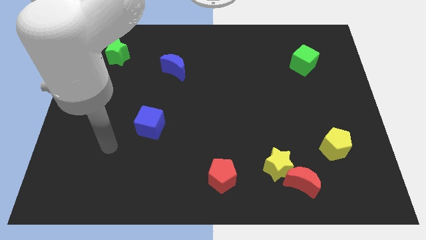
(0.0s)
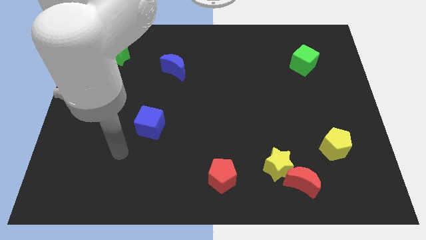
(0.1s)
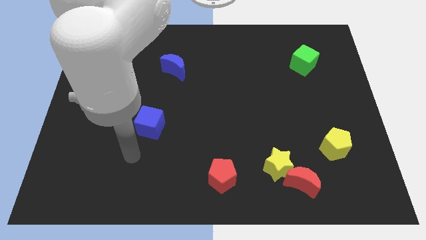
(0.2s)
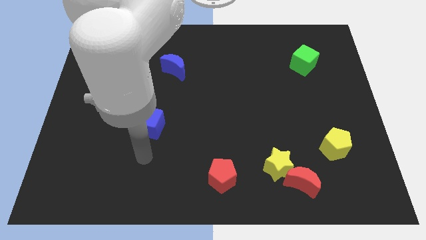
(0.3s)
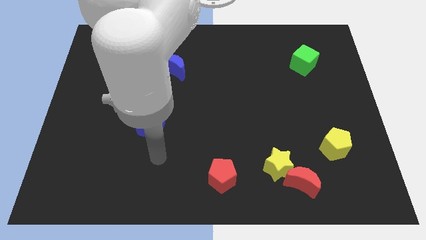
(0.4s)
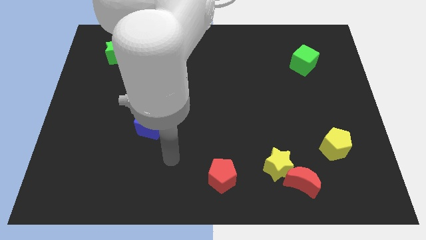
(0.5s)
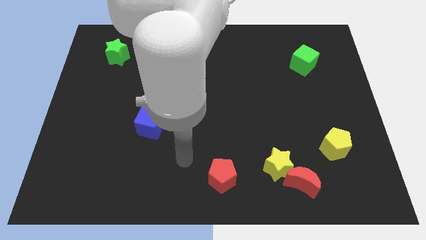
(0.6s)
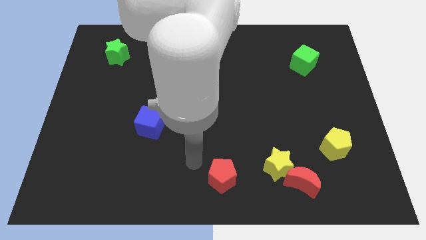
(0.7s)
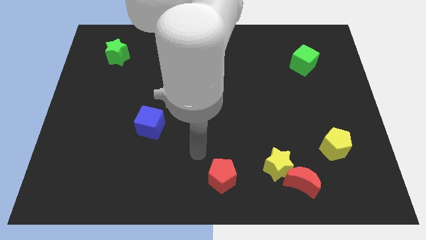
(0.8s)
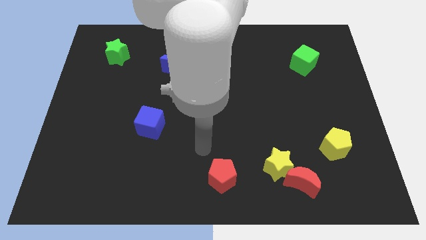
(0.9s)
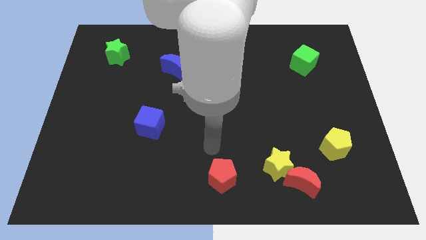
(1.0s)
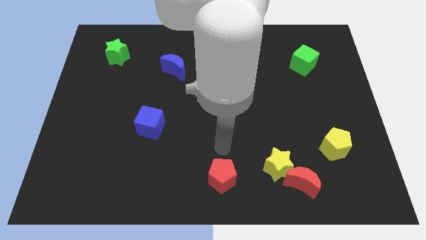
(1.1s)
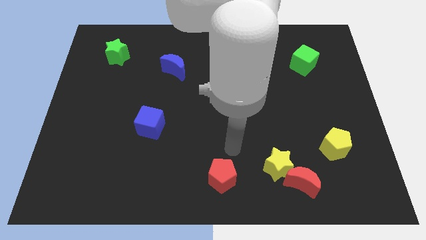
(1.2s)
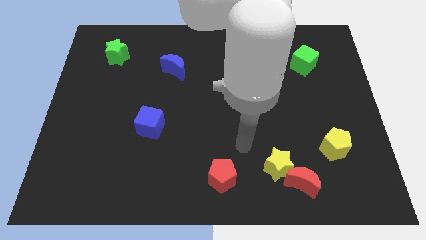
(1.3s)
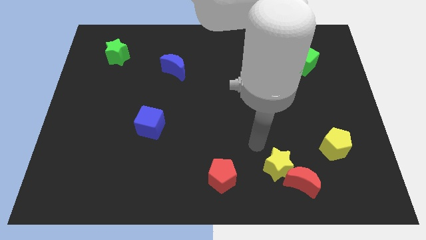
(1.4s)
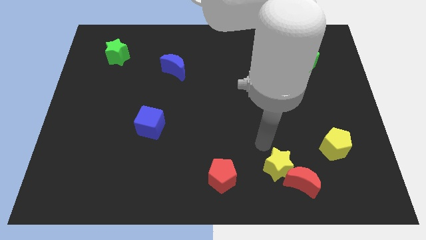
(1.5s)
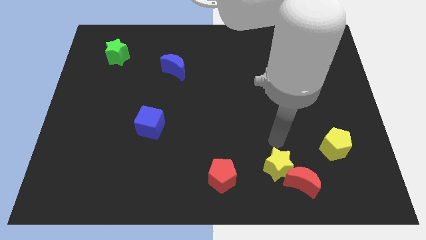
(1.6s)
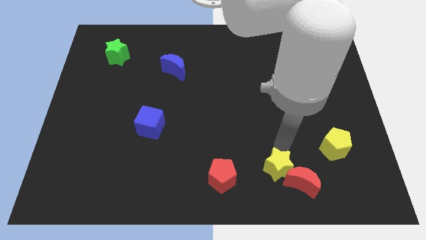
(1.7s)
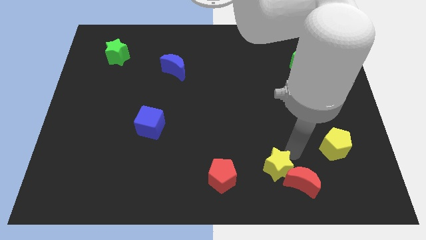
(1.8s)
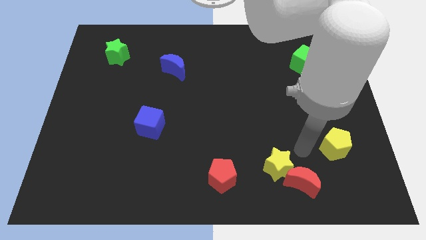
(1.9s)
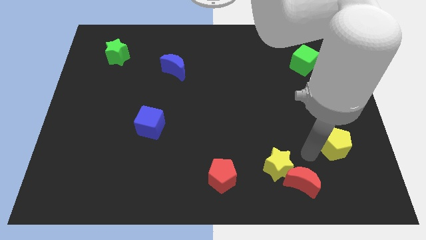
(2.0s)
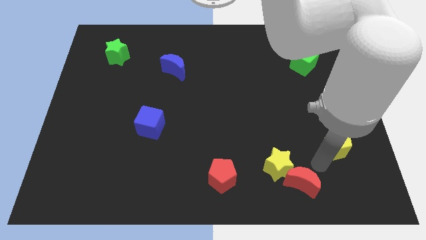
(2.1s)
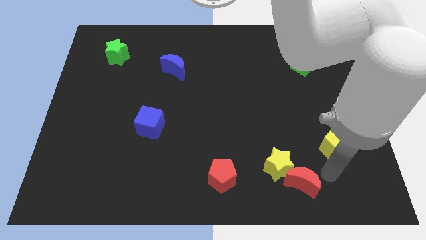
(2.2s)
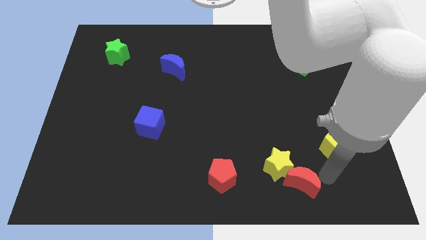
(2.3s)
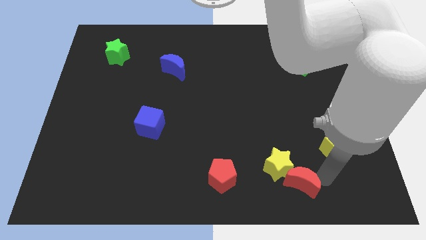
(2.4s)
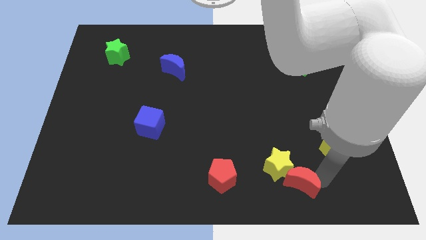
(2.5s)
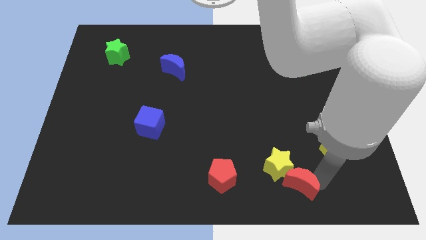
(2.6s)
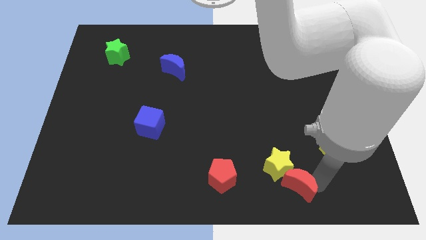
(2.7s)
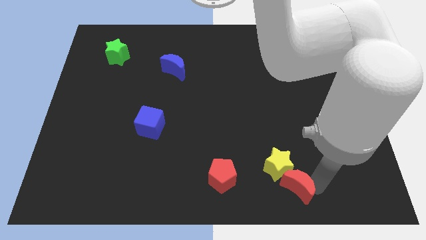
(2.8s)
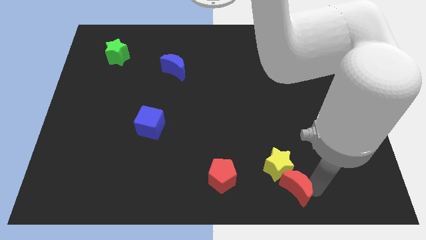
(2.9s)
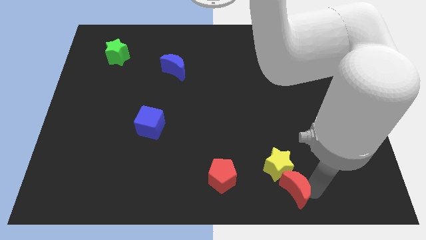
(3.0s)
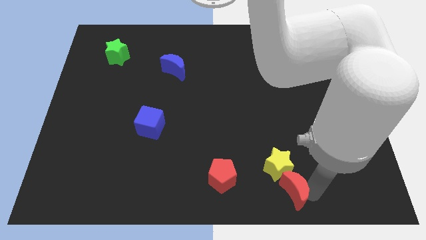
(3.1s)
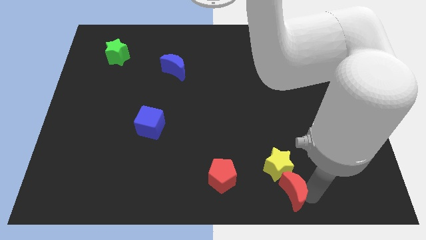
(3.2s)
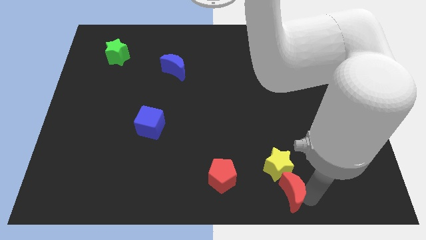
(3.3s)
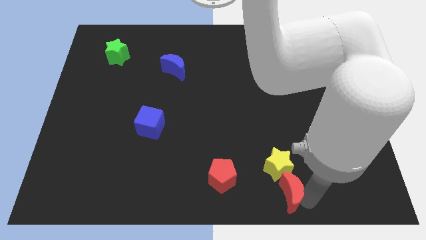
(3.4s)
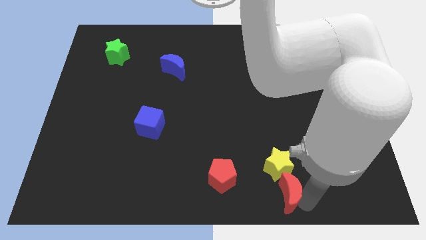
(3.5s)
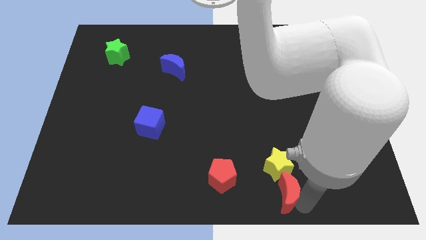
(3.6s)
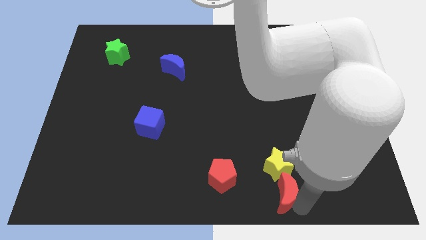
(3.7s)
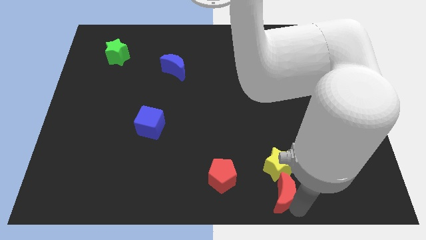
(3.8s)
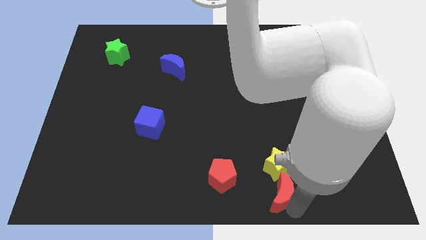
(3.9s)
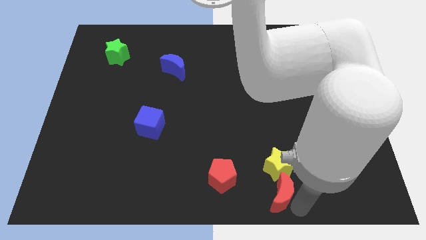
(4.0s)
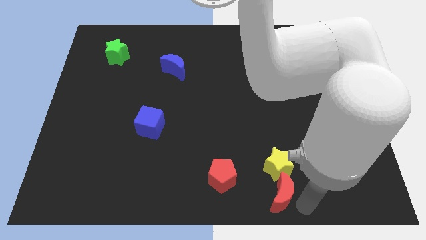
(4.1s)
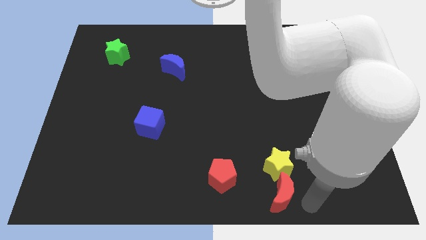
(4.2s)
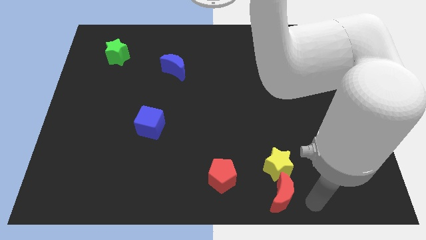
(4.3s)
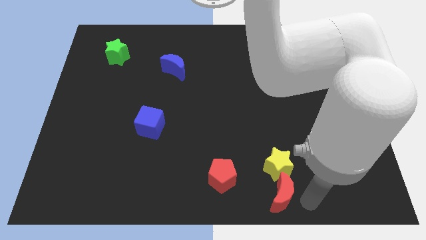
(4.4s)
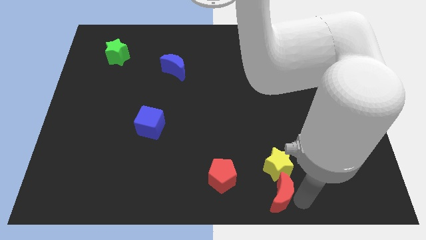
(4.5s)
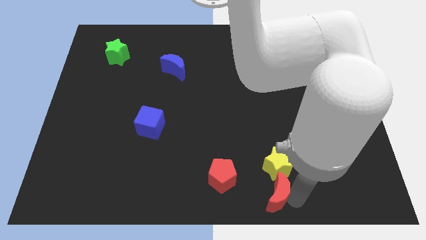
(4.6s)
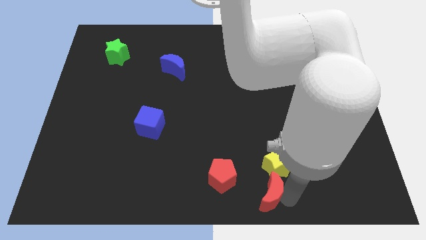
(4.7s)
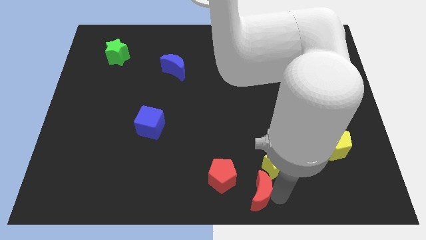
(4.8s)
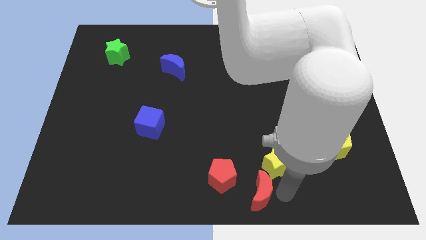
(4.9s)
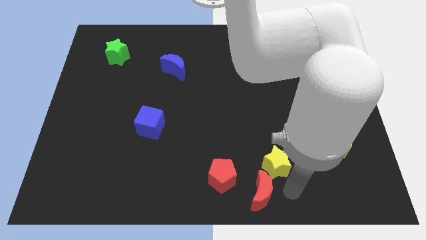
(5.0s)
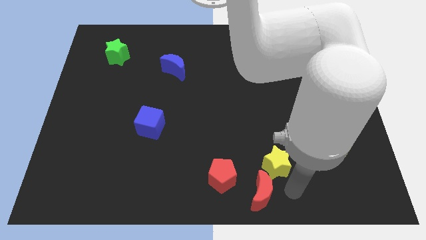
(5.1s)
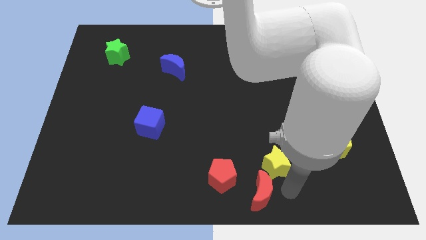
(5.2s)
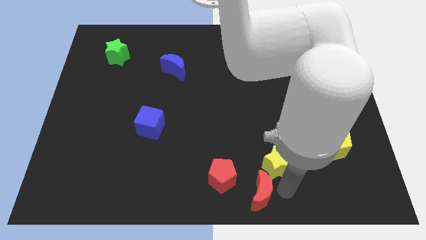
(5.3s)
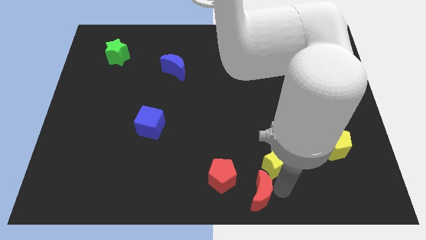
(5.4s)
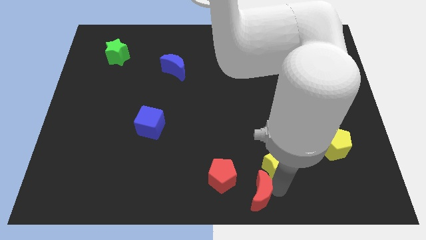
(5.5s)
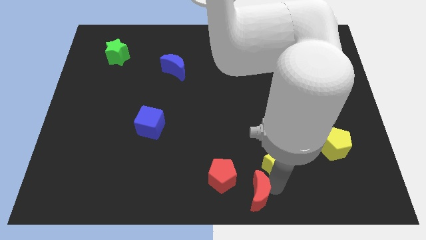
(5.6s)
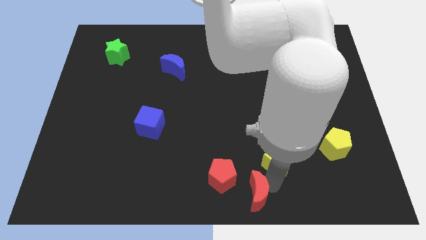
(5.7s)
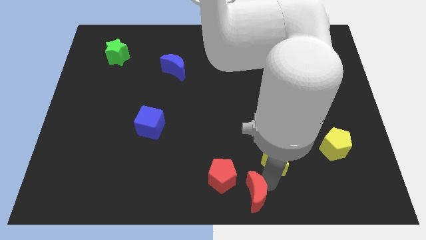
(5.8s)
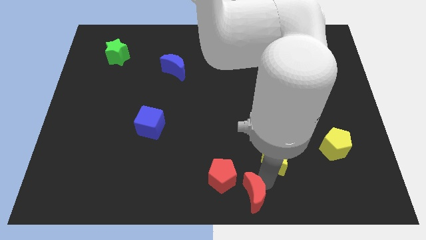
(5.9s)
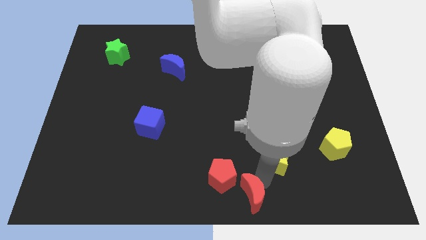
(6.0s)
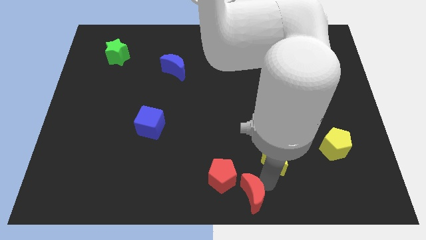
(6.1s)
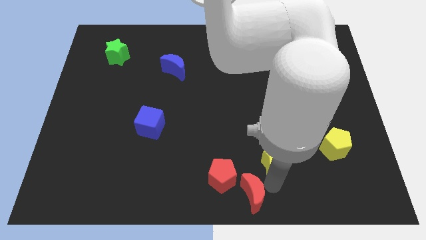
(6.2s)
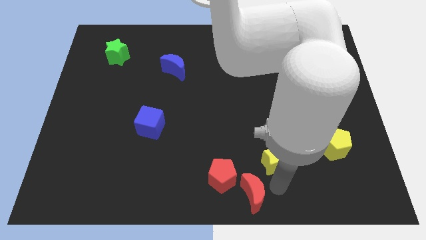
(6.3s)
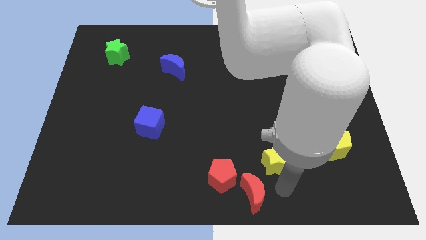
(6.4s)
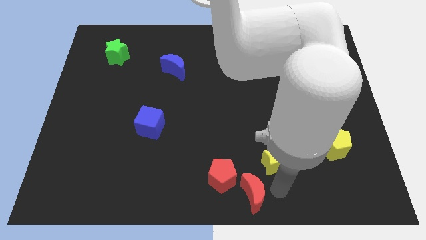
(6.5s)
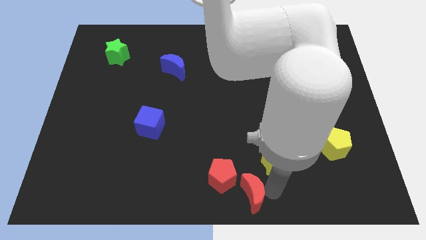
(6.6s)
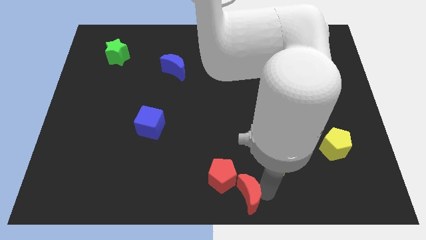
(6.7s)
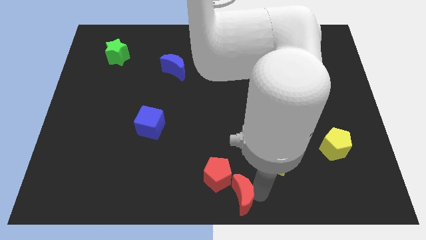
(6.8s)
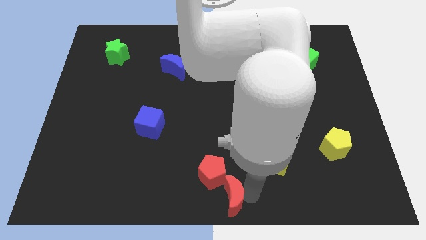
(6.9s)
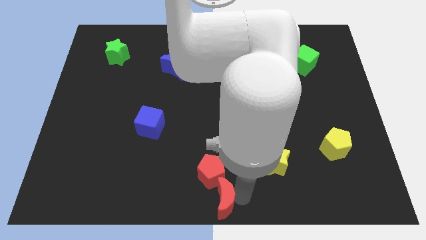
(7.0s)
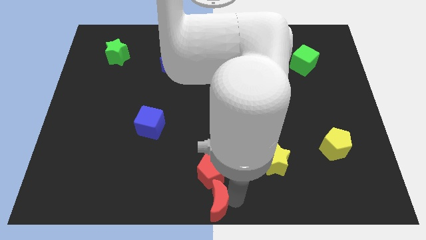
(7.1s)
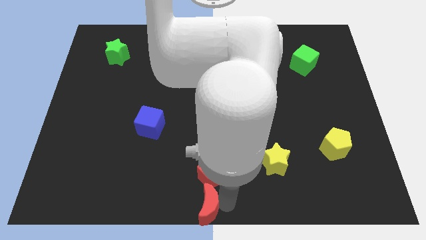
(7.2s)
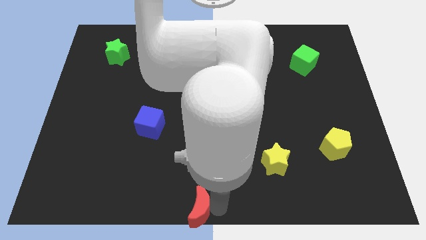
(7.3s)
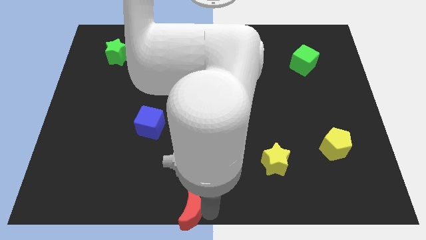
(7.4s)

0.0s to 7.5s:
move the red moon left

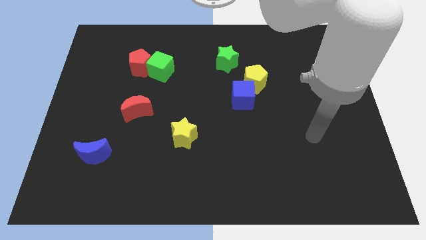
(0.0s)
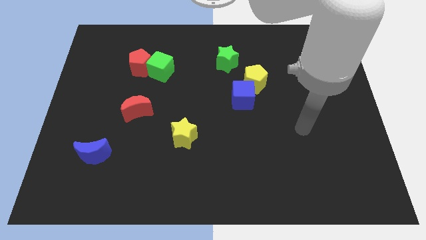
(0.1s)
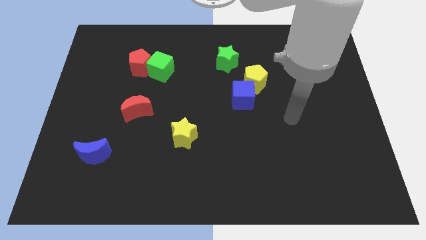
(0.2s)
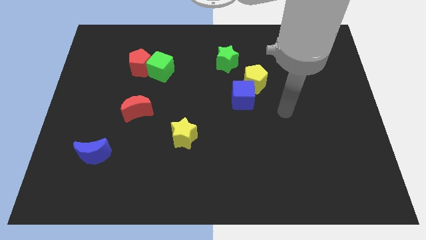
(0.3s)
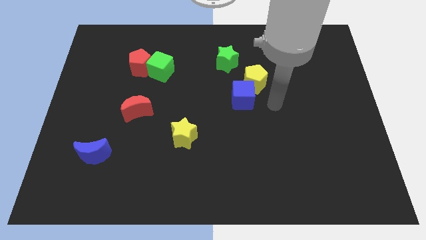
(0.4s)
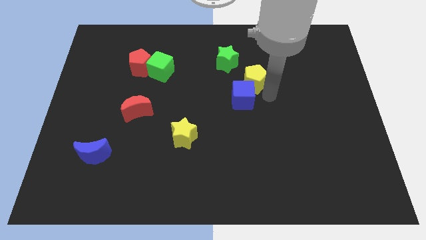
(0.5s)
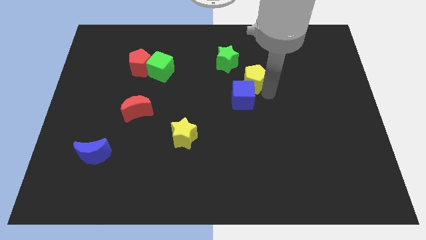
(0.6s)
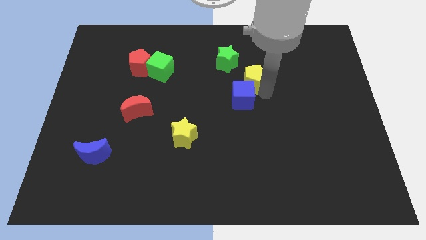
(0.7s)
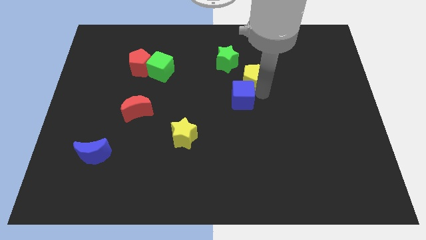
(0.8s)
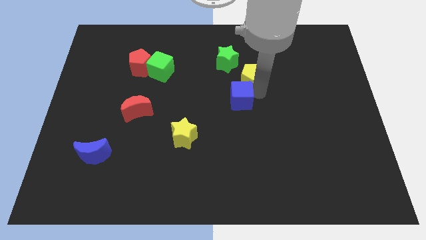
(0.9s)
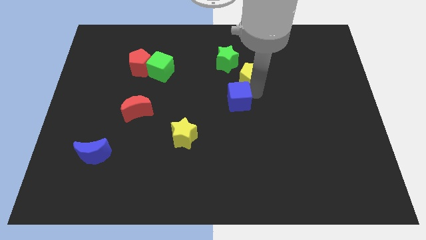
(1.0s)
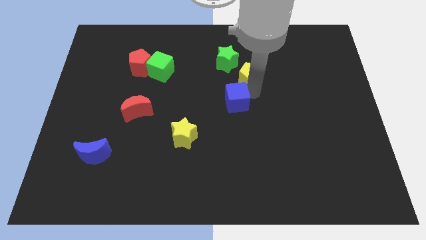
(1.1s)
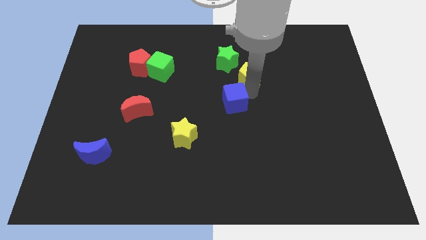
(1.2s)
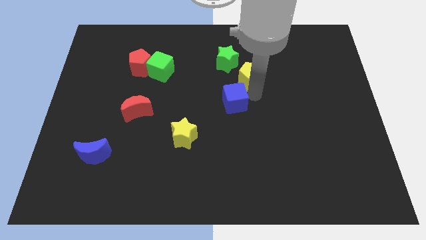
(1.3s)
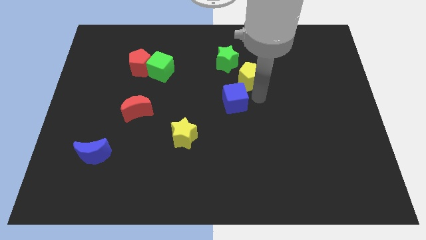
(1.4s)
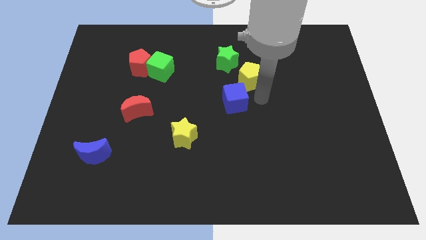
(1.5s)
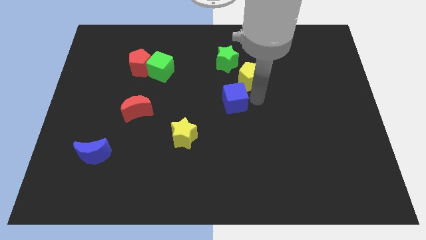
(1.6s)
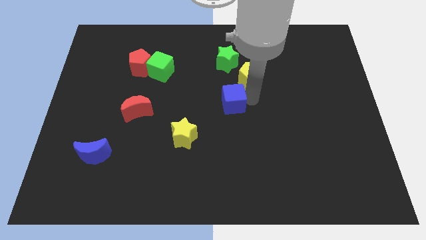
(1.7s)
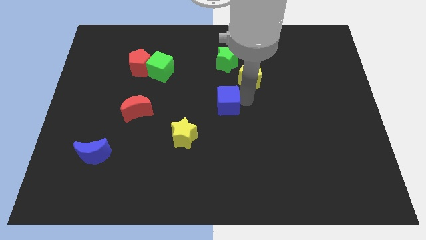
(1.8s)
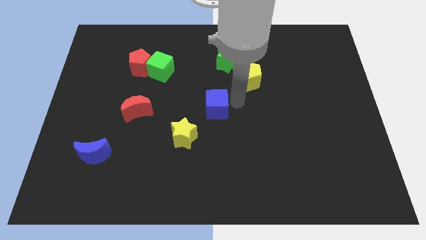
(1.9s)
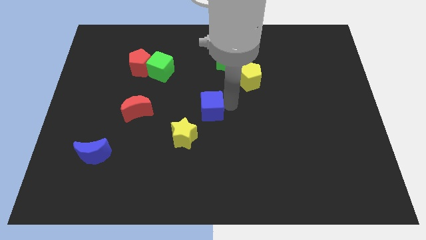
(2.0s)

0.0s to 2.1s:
move the blue cube slightly left
